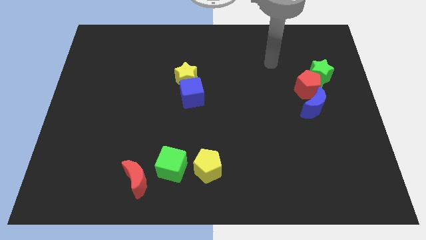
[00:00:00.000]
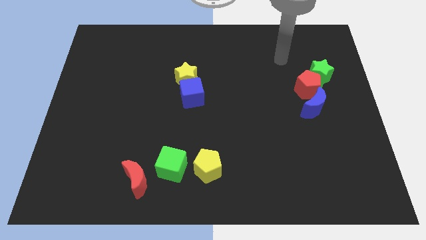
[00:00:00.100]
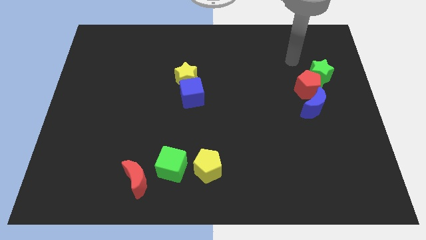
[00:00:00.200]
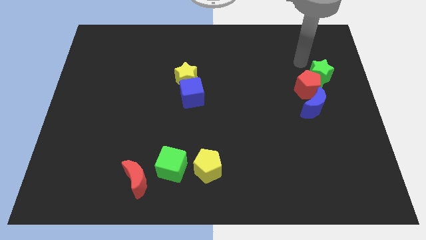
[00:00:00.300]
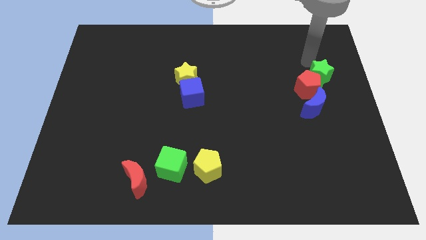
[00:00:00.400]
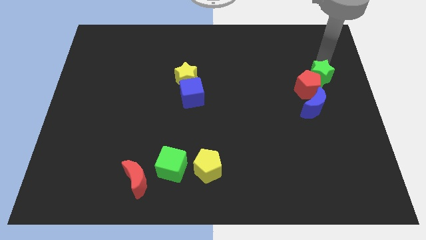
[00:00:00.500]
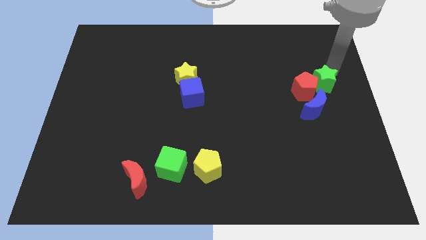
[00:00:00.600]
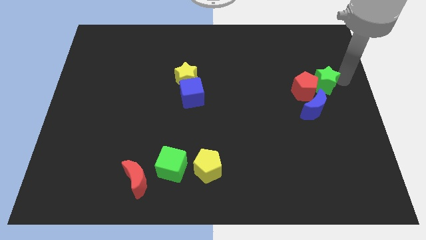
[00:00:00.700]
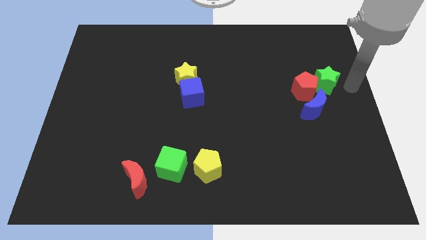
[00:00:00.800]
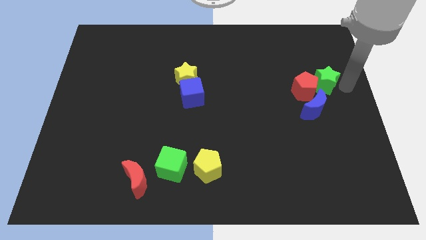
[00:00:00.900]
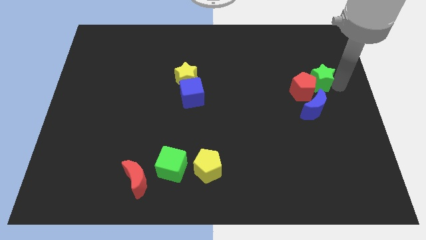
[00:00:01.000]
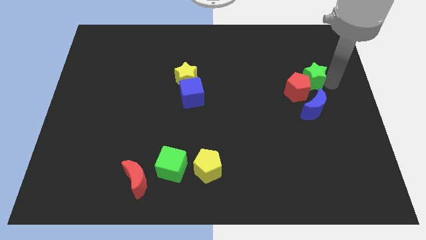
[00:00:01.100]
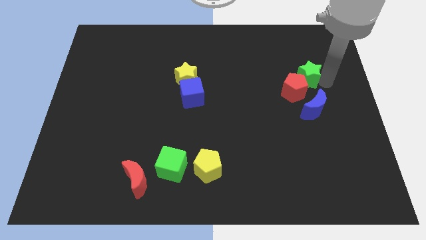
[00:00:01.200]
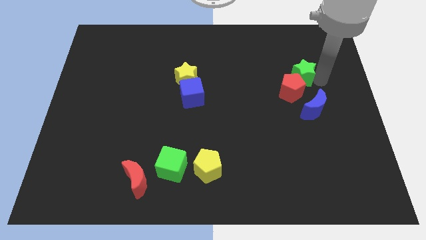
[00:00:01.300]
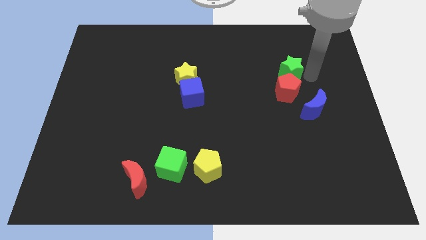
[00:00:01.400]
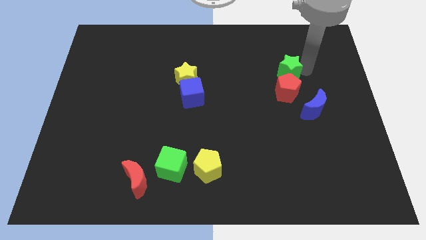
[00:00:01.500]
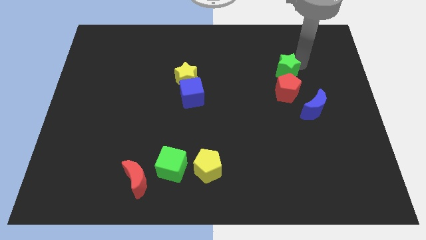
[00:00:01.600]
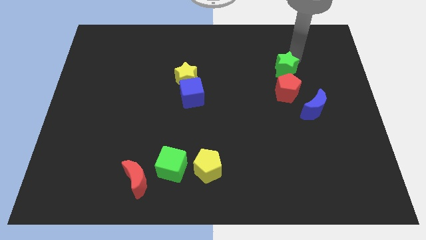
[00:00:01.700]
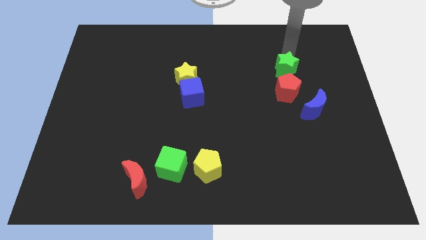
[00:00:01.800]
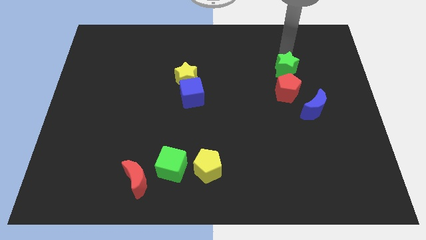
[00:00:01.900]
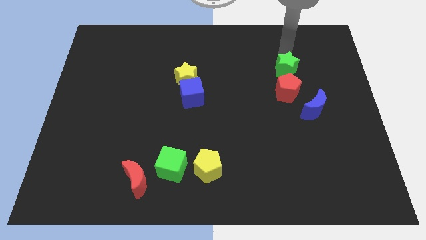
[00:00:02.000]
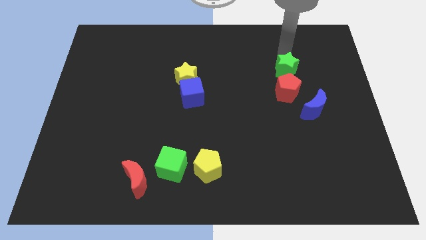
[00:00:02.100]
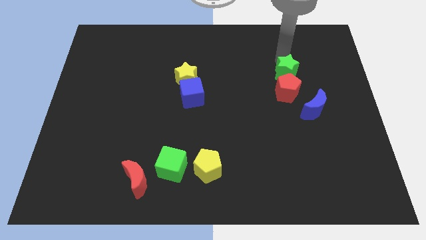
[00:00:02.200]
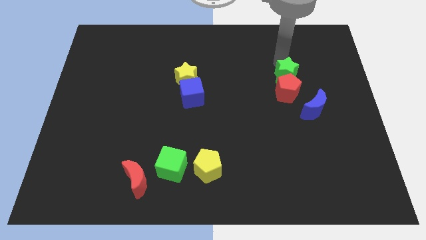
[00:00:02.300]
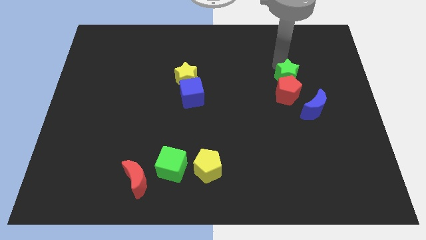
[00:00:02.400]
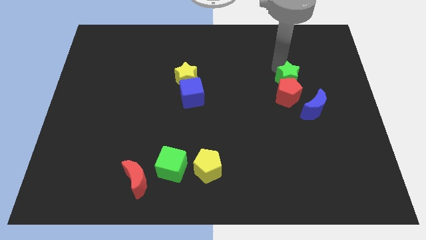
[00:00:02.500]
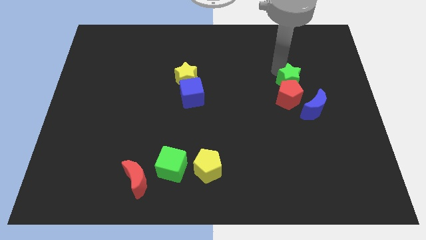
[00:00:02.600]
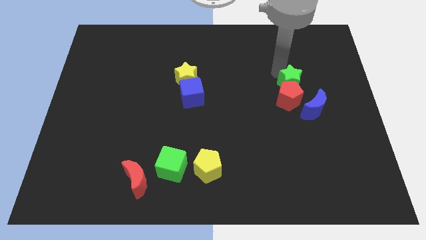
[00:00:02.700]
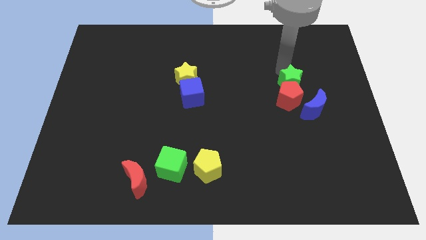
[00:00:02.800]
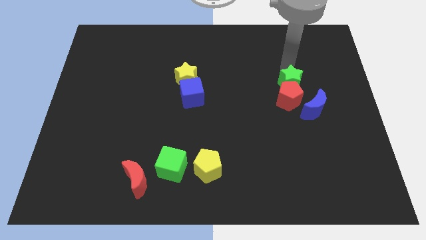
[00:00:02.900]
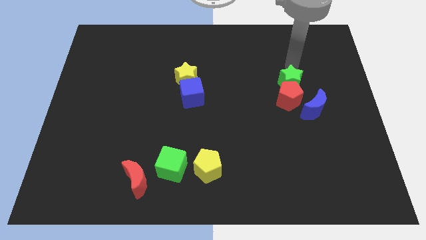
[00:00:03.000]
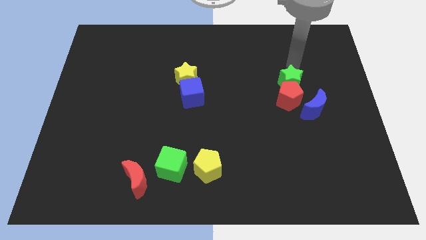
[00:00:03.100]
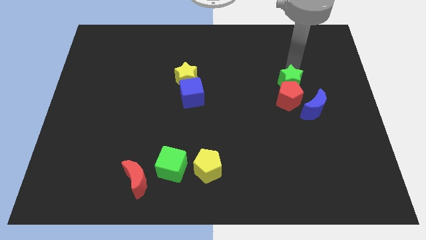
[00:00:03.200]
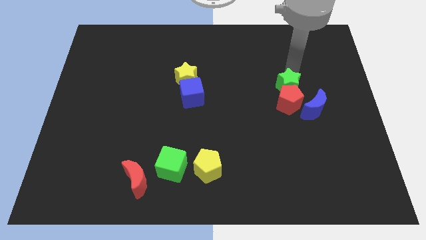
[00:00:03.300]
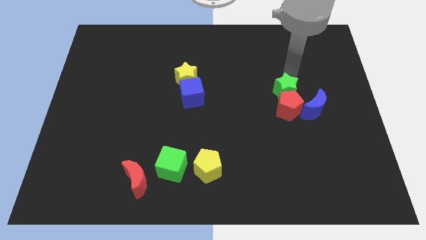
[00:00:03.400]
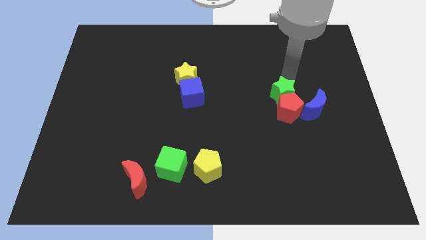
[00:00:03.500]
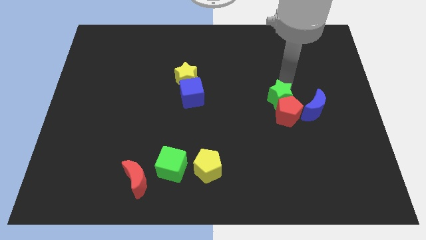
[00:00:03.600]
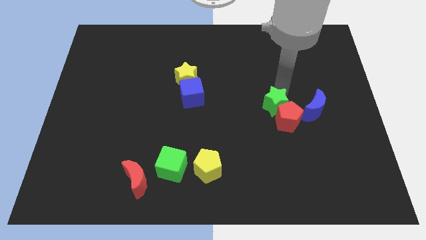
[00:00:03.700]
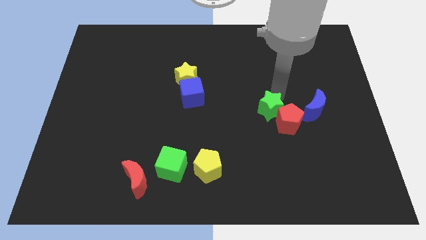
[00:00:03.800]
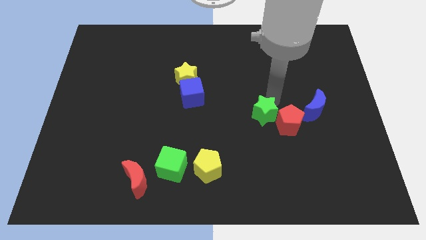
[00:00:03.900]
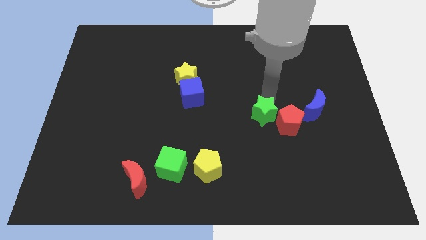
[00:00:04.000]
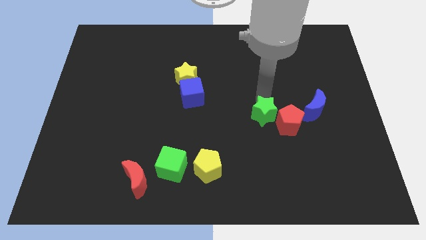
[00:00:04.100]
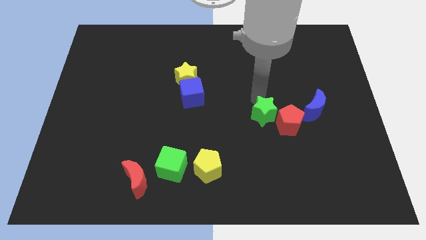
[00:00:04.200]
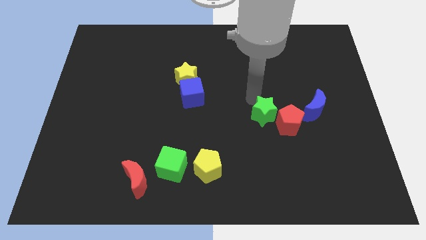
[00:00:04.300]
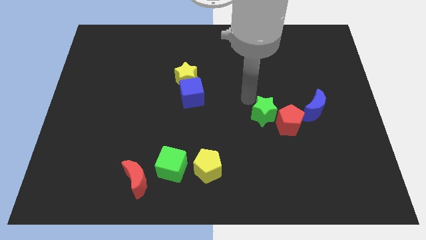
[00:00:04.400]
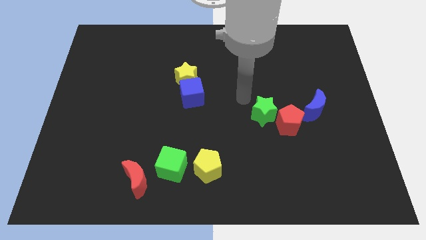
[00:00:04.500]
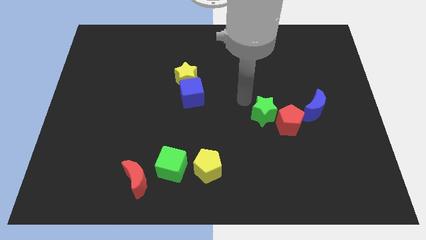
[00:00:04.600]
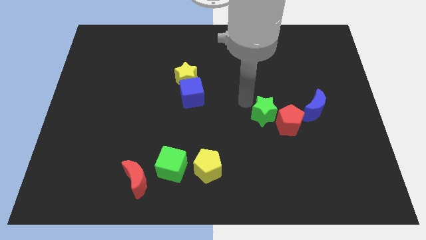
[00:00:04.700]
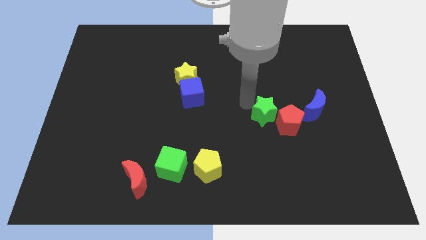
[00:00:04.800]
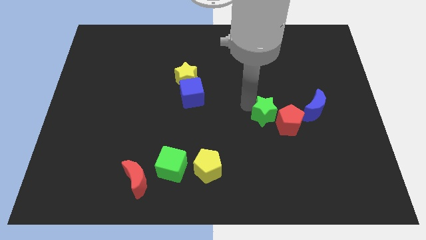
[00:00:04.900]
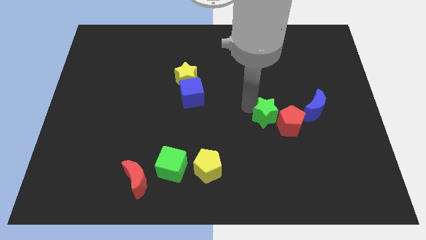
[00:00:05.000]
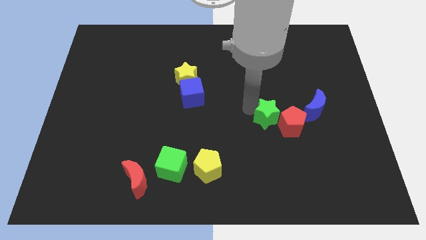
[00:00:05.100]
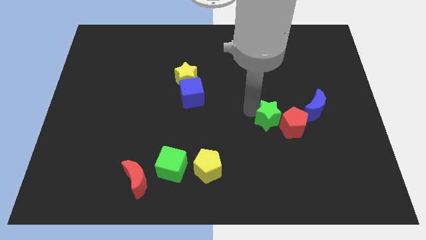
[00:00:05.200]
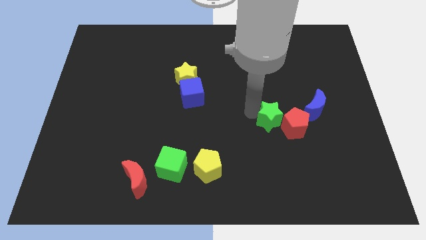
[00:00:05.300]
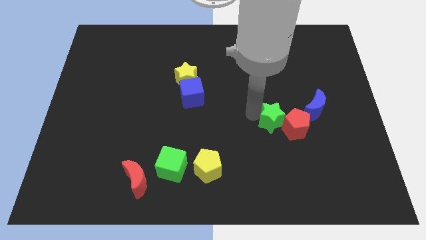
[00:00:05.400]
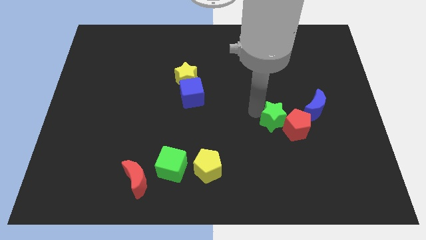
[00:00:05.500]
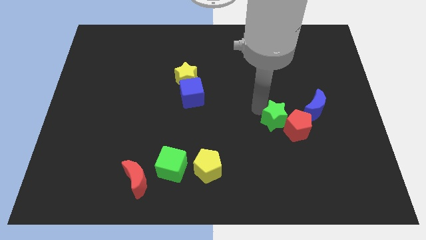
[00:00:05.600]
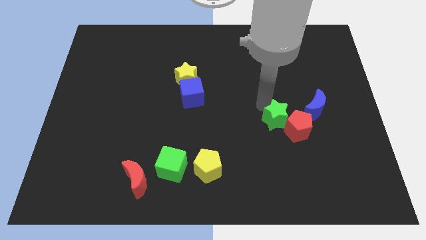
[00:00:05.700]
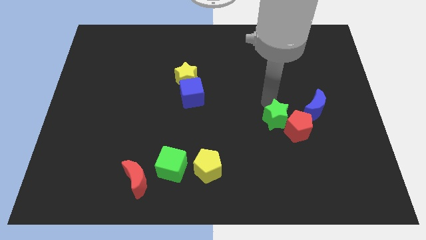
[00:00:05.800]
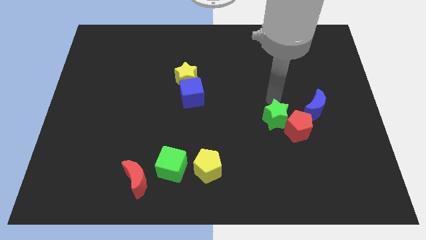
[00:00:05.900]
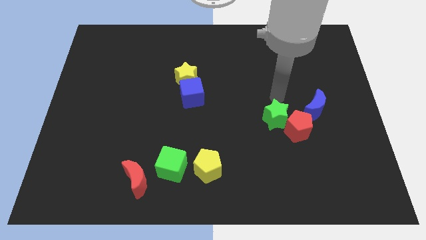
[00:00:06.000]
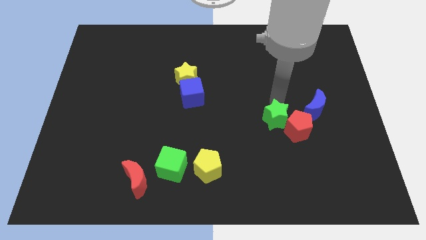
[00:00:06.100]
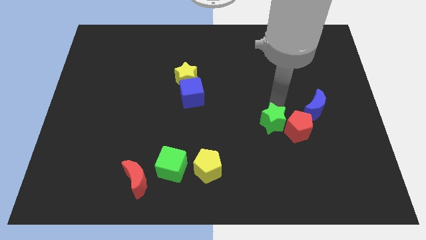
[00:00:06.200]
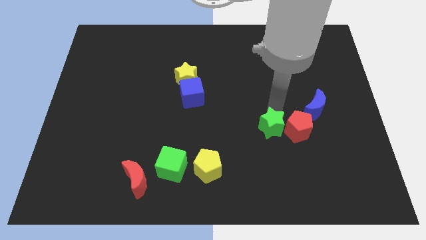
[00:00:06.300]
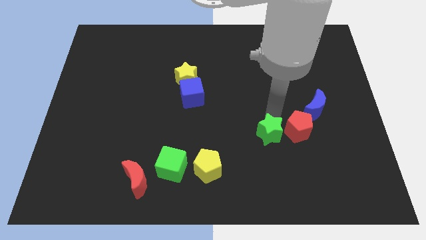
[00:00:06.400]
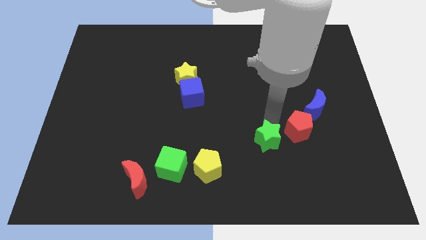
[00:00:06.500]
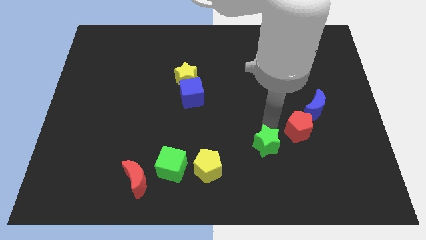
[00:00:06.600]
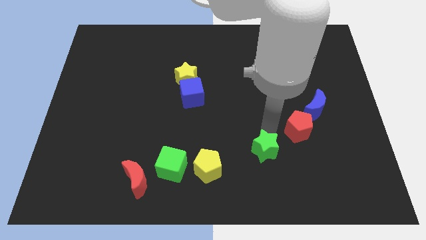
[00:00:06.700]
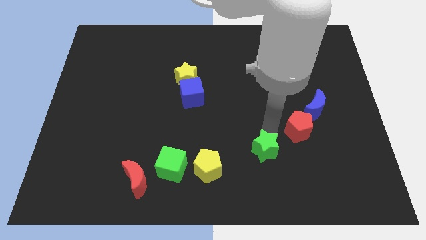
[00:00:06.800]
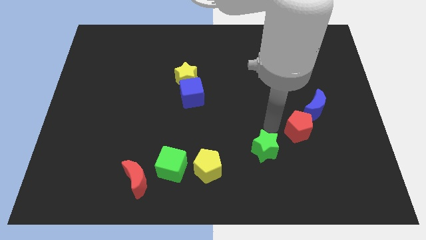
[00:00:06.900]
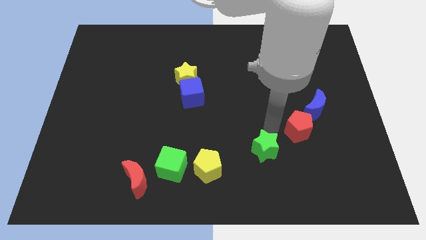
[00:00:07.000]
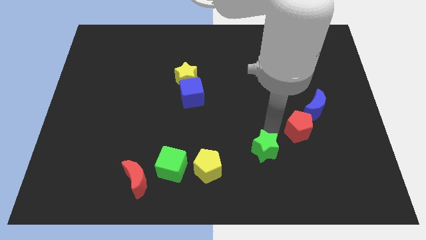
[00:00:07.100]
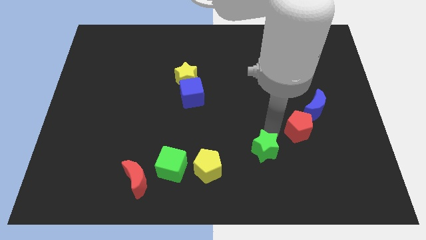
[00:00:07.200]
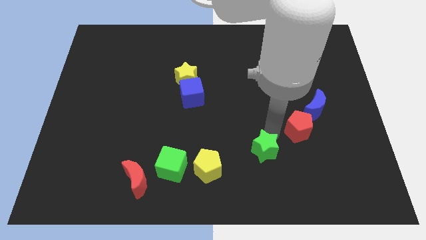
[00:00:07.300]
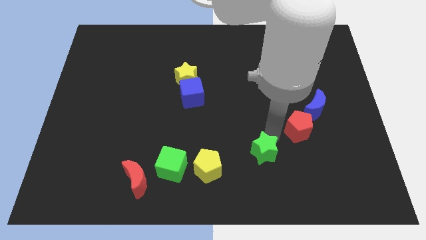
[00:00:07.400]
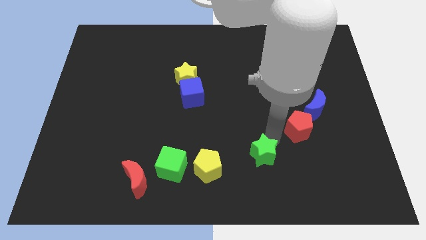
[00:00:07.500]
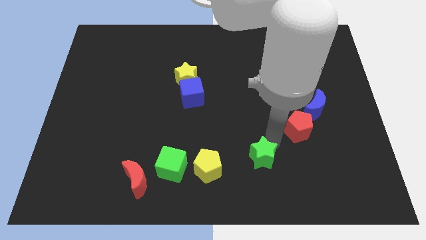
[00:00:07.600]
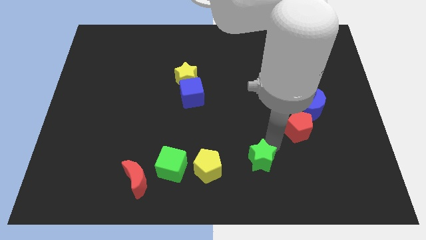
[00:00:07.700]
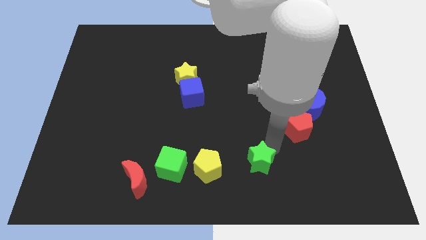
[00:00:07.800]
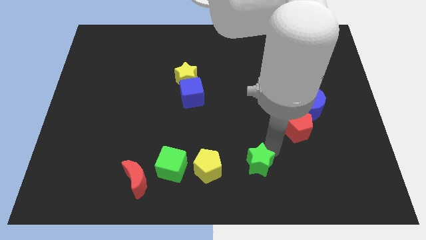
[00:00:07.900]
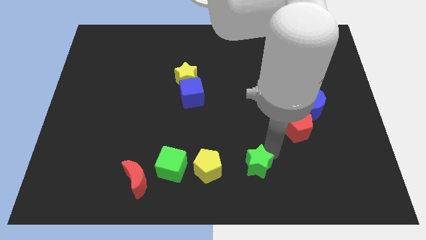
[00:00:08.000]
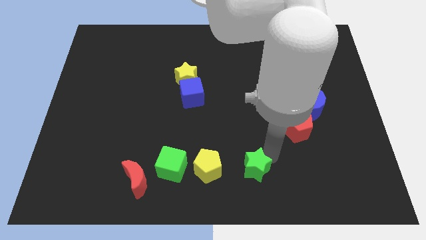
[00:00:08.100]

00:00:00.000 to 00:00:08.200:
push the green star to the bottom
